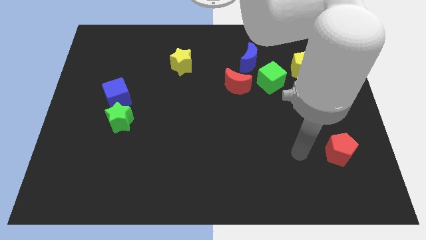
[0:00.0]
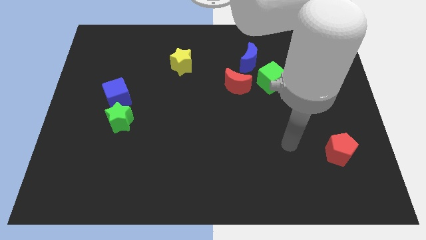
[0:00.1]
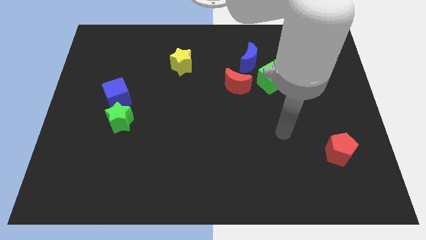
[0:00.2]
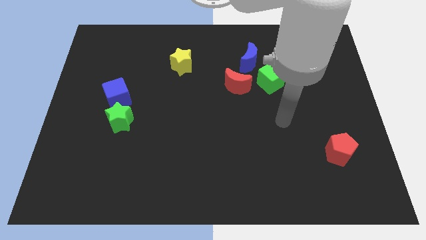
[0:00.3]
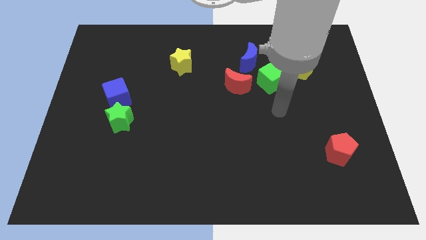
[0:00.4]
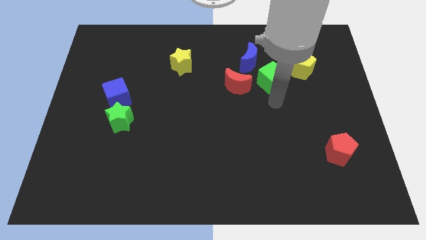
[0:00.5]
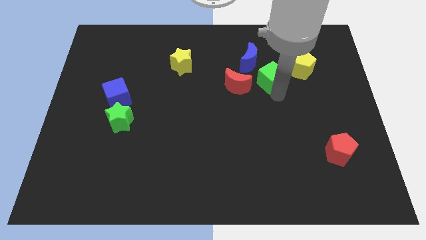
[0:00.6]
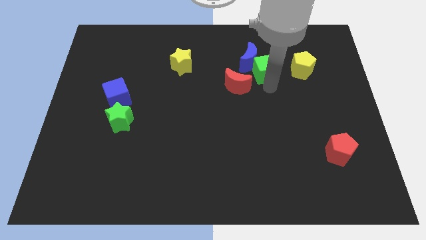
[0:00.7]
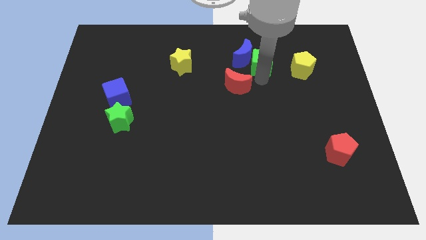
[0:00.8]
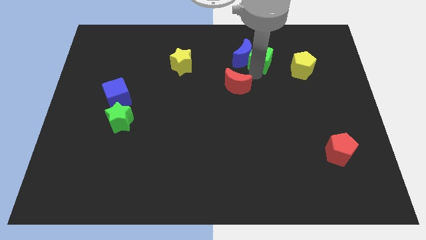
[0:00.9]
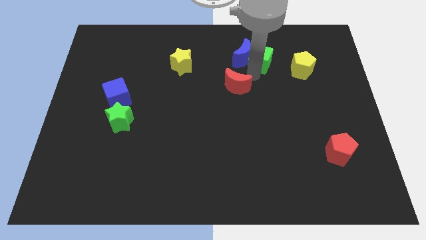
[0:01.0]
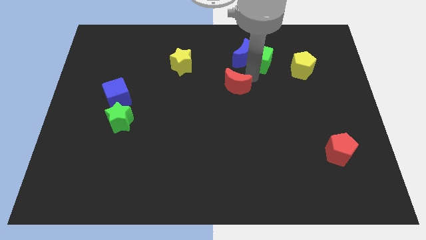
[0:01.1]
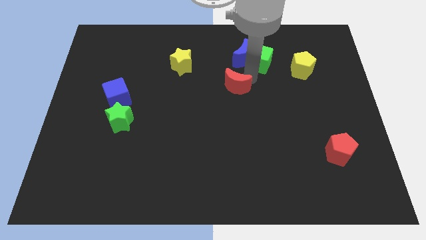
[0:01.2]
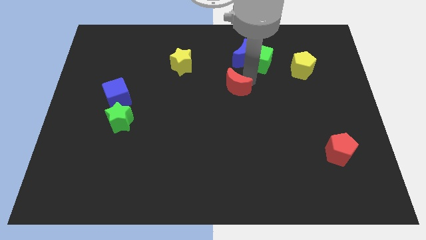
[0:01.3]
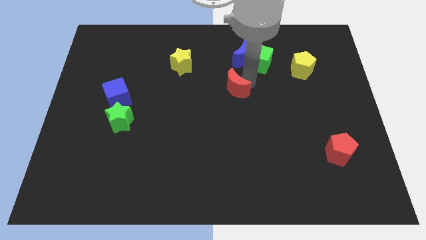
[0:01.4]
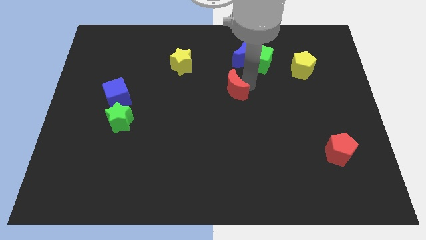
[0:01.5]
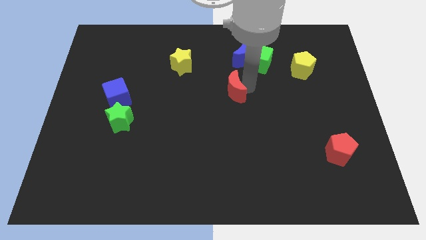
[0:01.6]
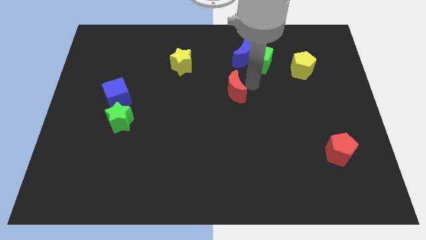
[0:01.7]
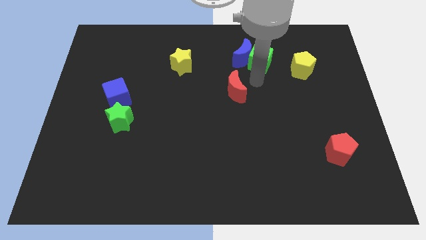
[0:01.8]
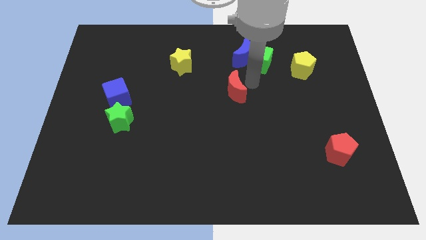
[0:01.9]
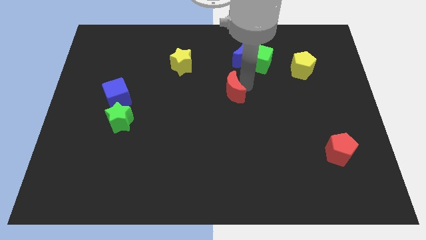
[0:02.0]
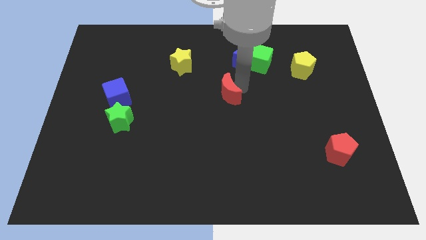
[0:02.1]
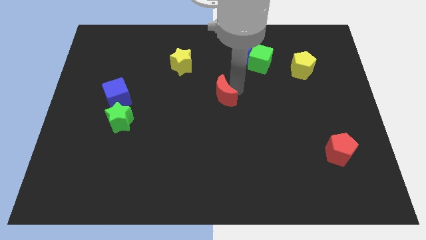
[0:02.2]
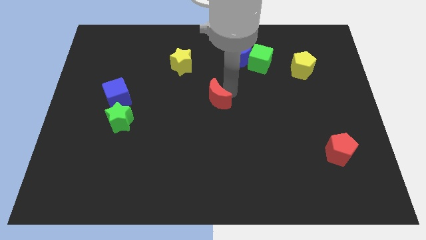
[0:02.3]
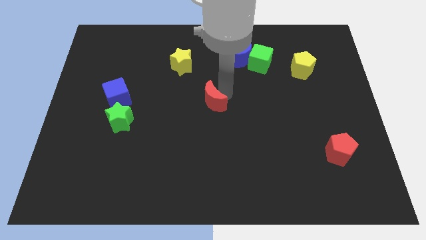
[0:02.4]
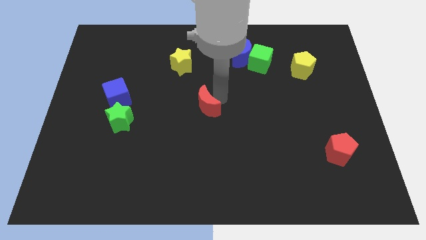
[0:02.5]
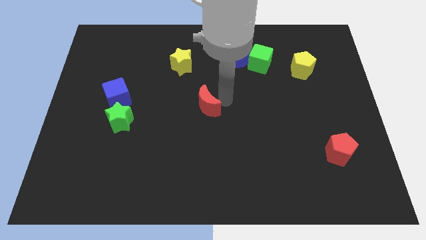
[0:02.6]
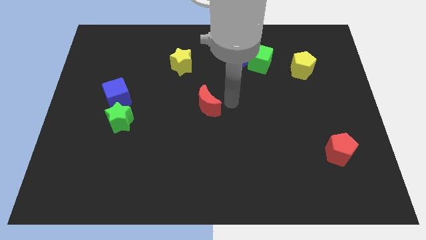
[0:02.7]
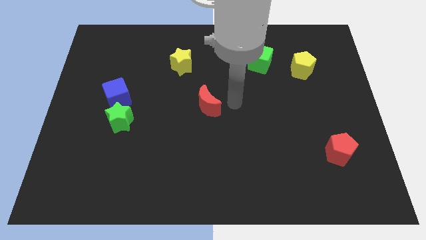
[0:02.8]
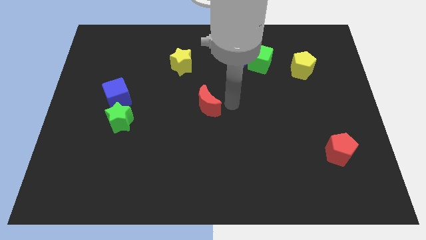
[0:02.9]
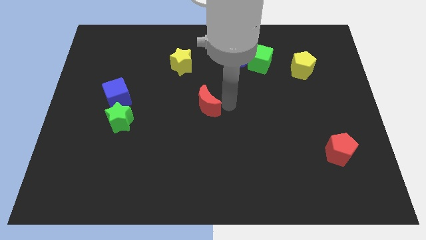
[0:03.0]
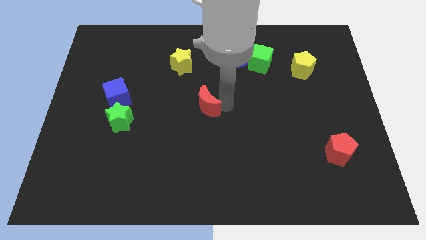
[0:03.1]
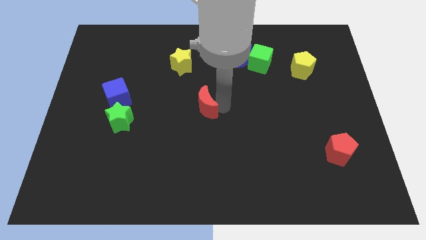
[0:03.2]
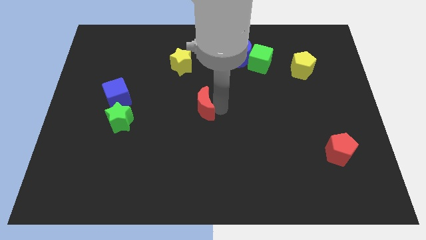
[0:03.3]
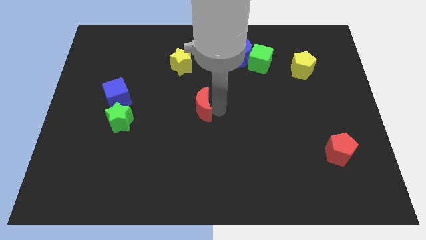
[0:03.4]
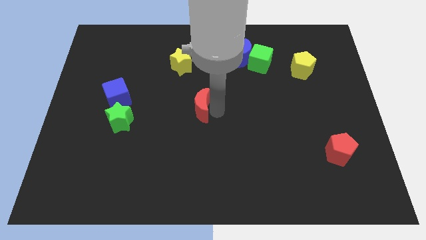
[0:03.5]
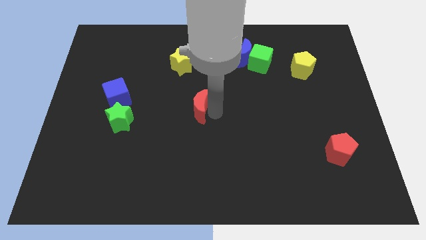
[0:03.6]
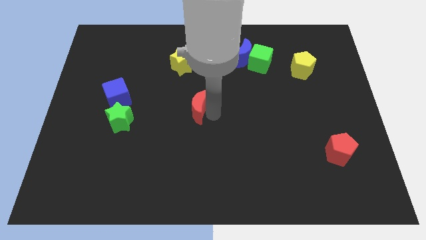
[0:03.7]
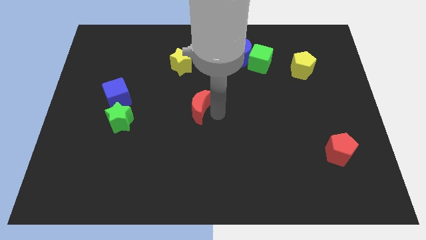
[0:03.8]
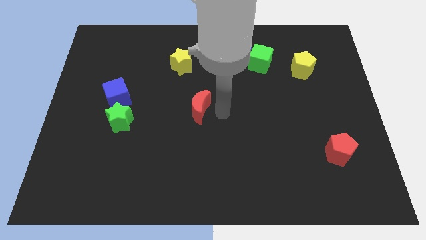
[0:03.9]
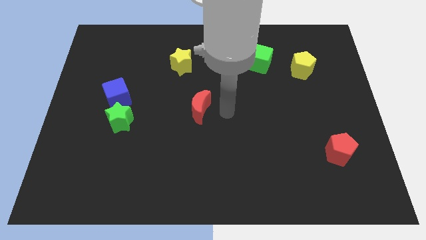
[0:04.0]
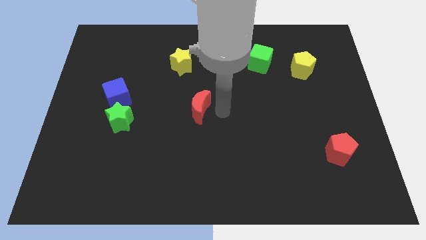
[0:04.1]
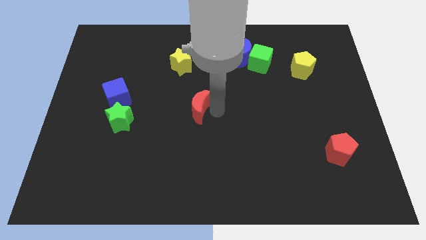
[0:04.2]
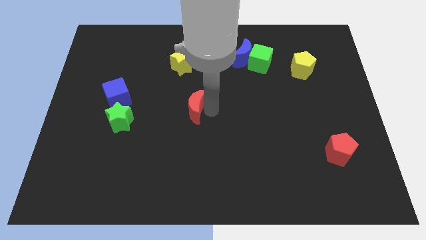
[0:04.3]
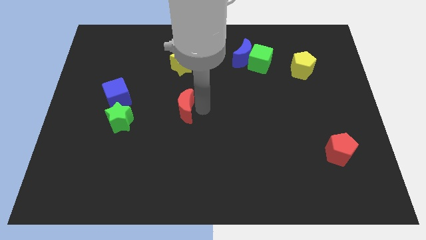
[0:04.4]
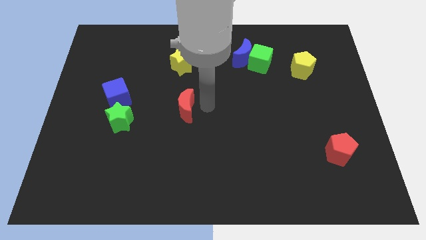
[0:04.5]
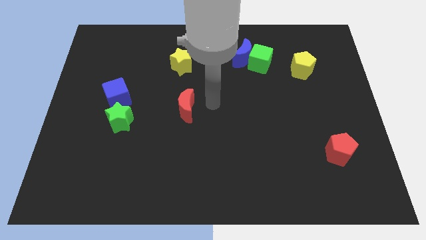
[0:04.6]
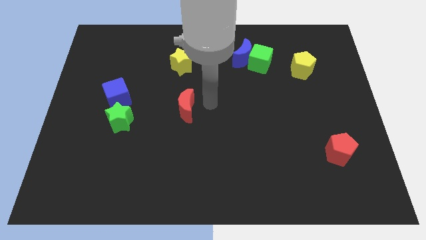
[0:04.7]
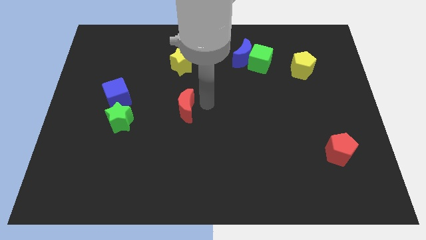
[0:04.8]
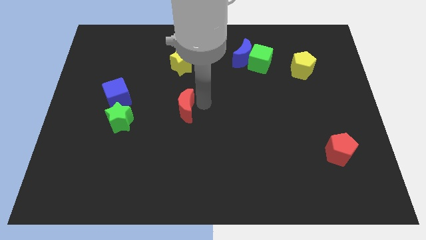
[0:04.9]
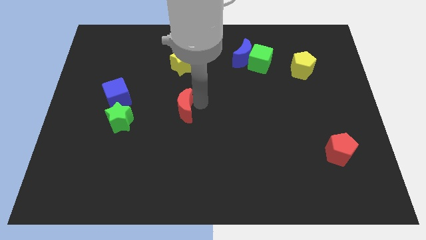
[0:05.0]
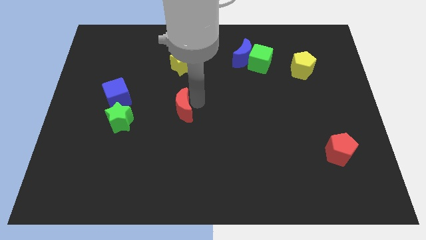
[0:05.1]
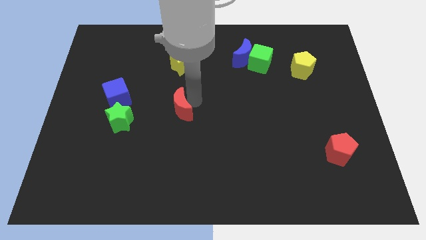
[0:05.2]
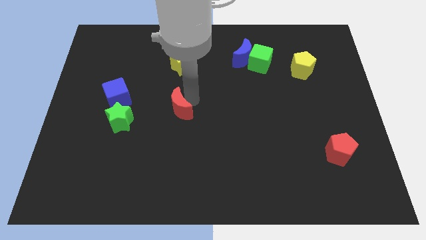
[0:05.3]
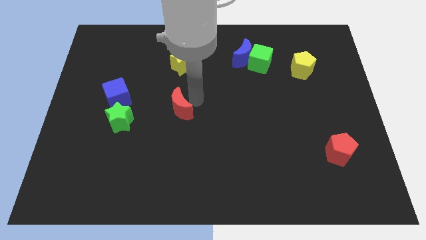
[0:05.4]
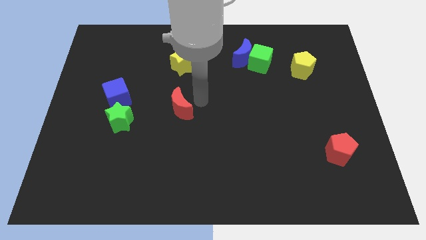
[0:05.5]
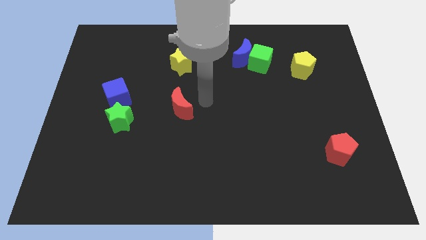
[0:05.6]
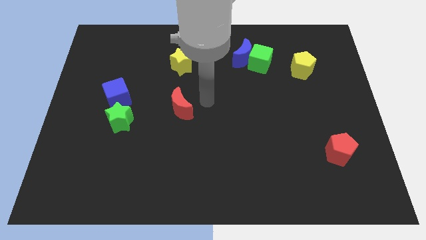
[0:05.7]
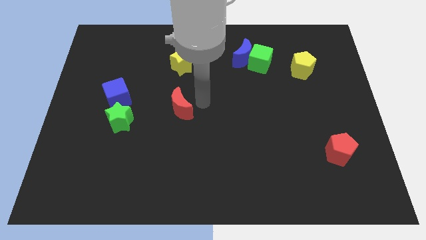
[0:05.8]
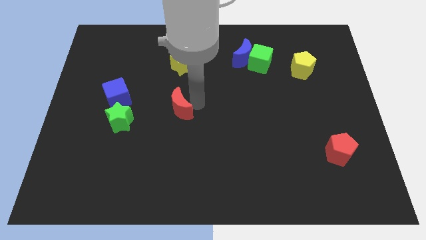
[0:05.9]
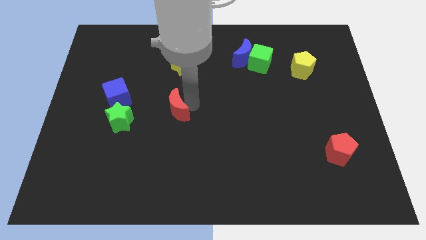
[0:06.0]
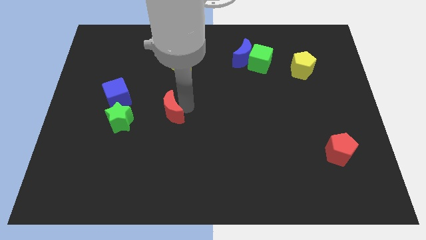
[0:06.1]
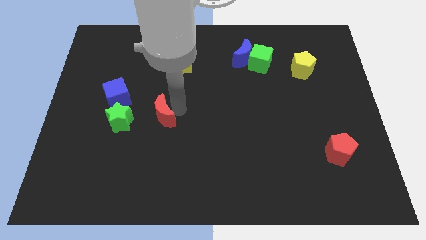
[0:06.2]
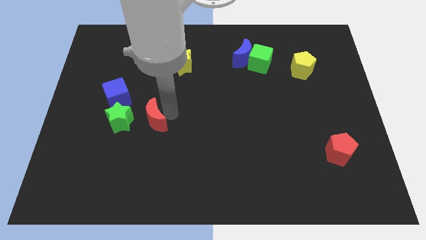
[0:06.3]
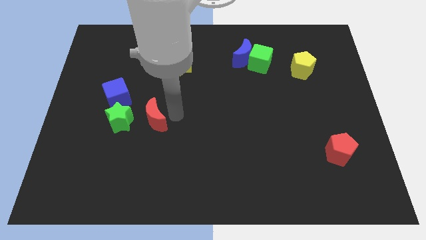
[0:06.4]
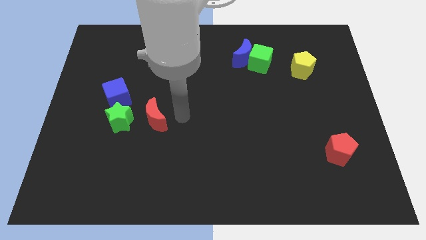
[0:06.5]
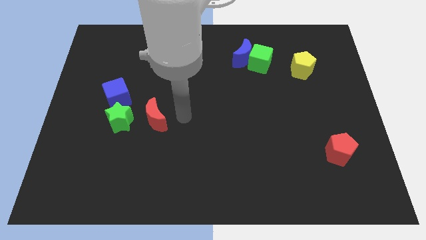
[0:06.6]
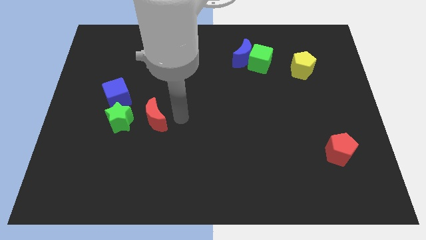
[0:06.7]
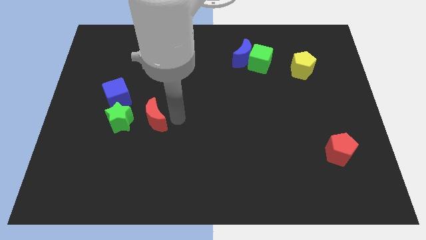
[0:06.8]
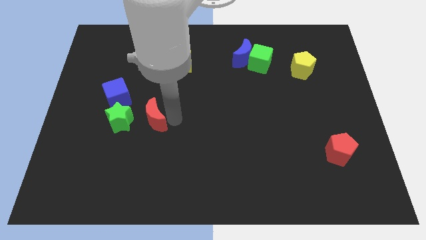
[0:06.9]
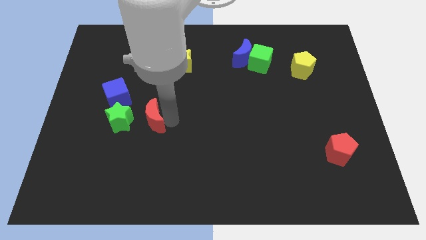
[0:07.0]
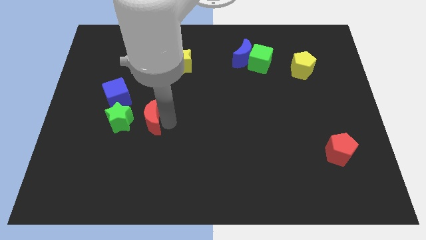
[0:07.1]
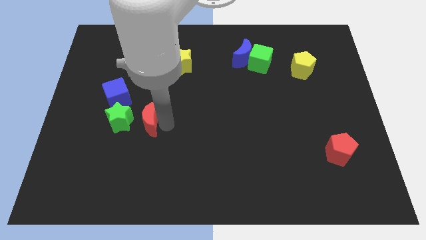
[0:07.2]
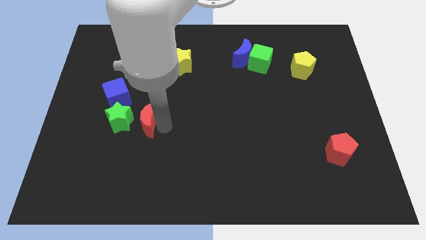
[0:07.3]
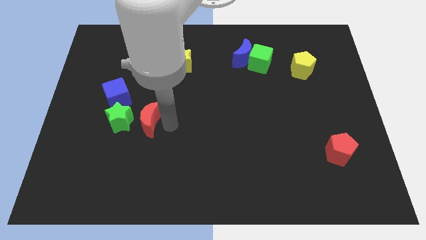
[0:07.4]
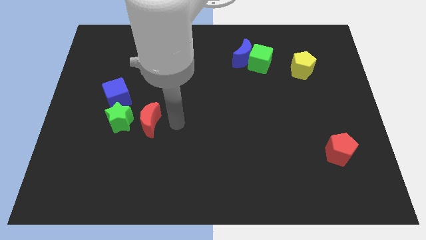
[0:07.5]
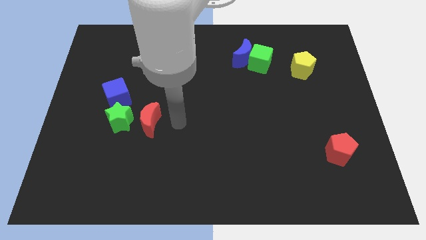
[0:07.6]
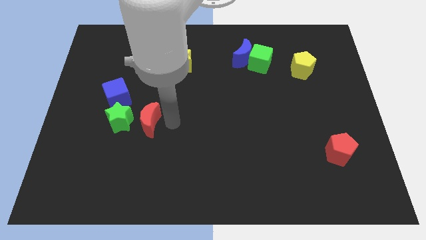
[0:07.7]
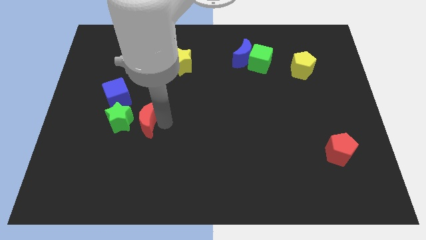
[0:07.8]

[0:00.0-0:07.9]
slide the red moon to the green star
